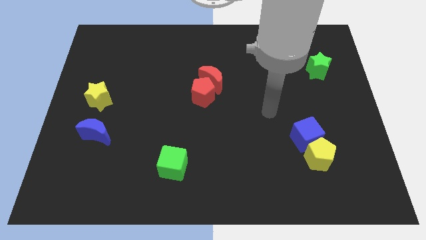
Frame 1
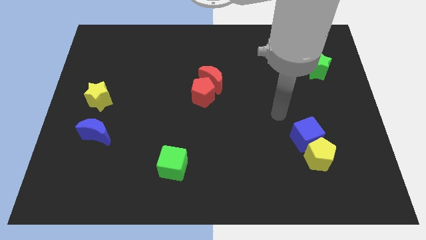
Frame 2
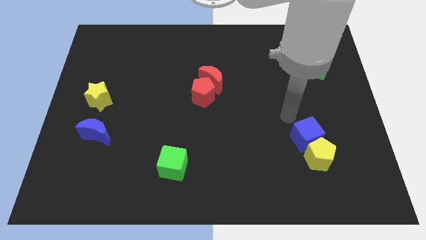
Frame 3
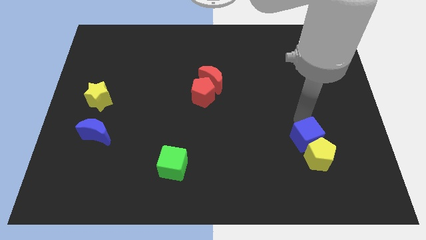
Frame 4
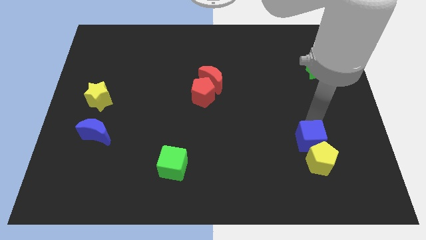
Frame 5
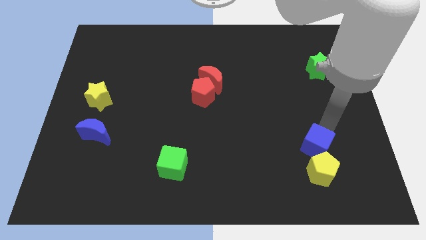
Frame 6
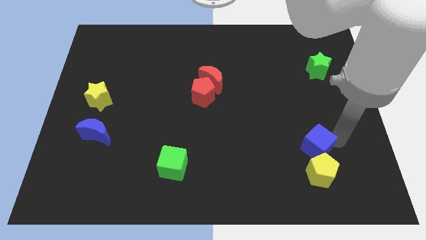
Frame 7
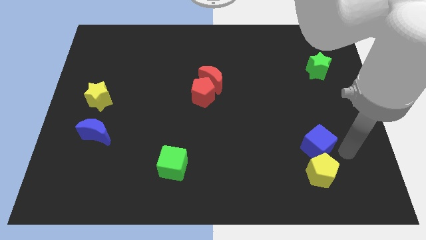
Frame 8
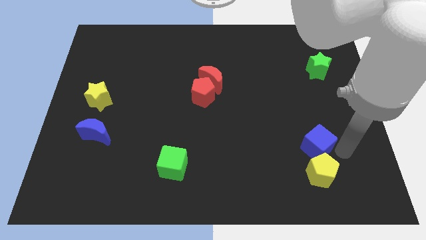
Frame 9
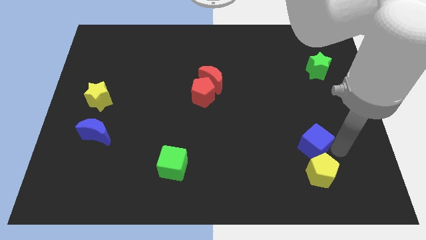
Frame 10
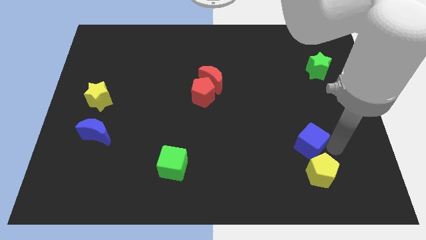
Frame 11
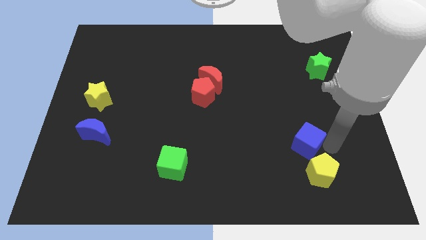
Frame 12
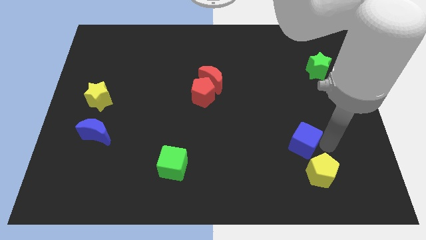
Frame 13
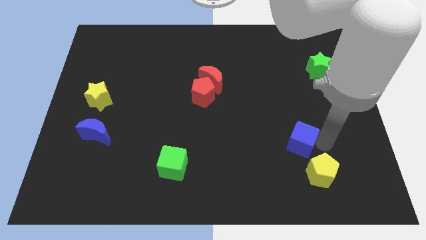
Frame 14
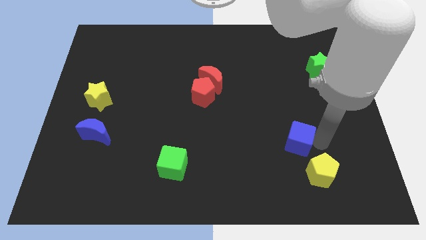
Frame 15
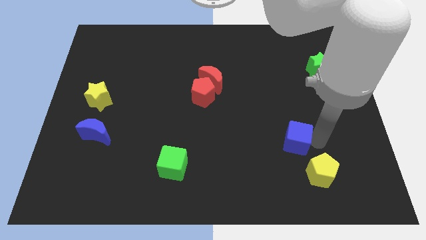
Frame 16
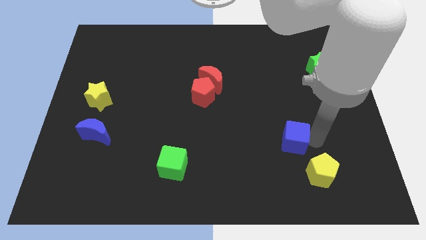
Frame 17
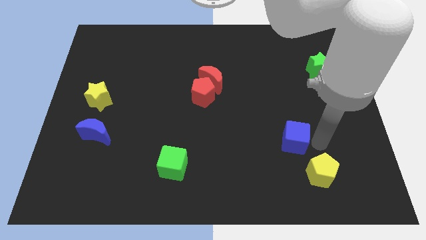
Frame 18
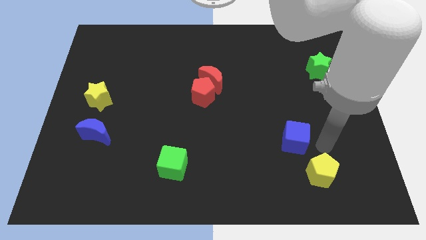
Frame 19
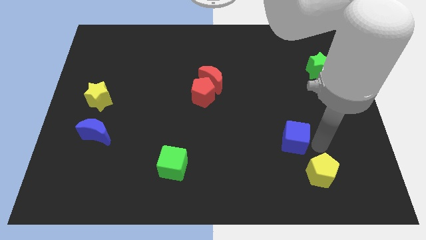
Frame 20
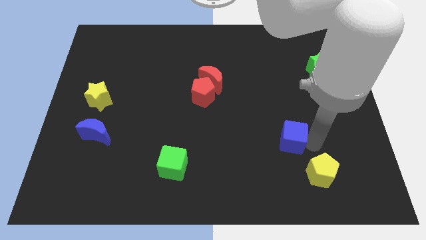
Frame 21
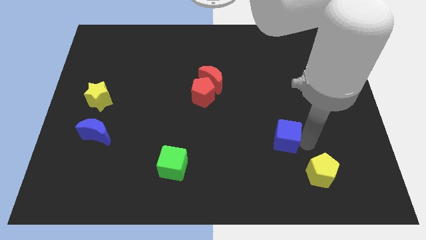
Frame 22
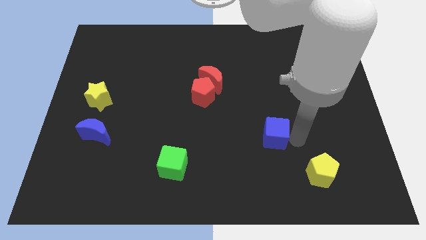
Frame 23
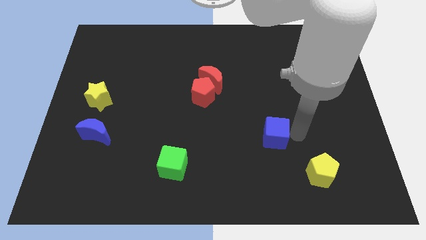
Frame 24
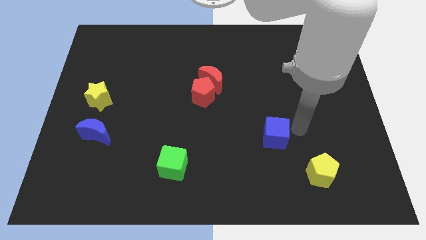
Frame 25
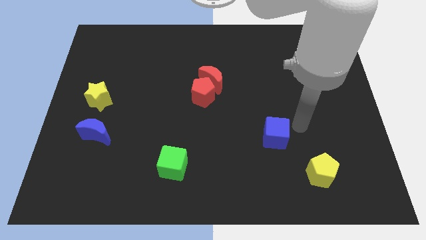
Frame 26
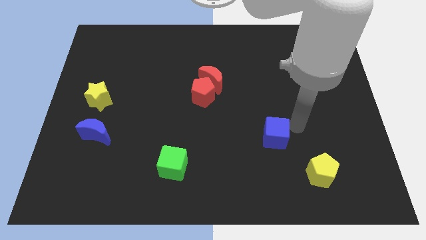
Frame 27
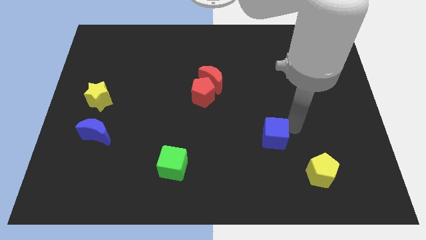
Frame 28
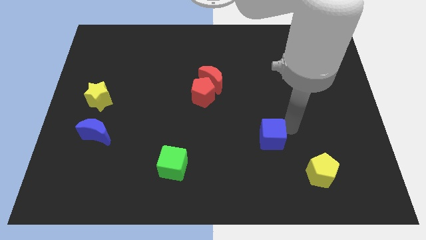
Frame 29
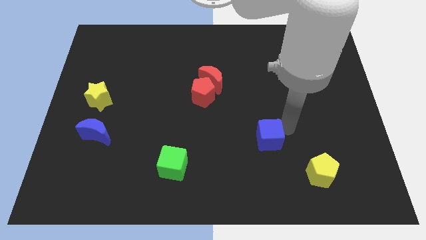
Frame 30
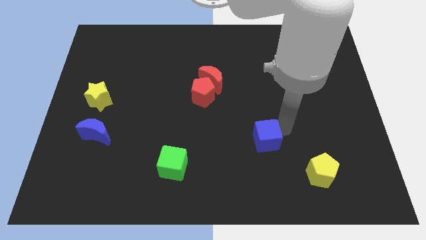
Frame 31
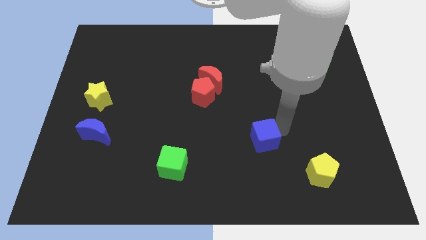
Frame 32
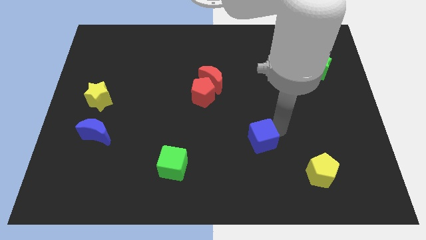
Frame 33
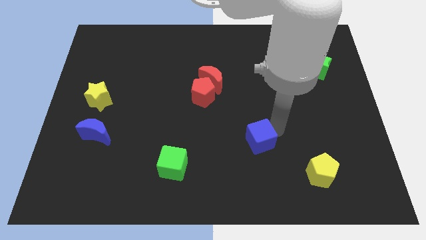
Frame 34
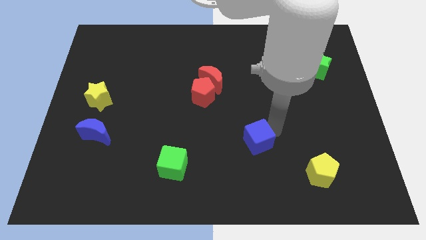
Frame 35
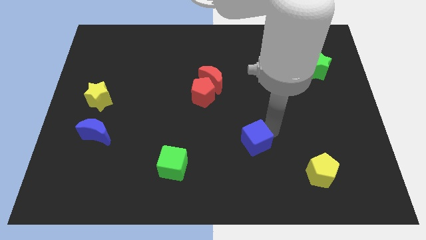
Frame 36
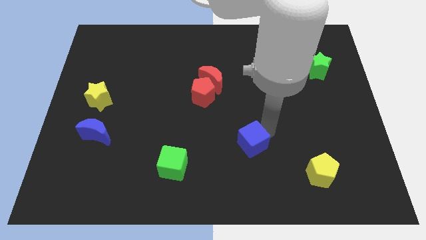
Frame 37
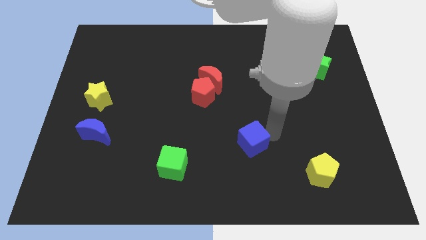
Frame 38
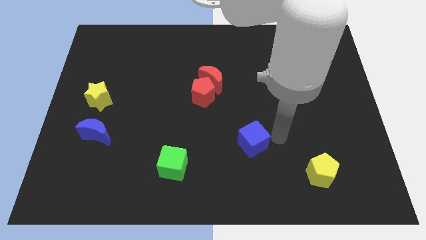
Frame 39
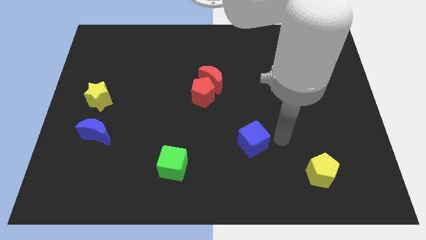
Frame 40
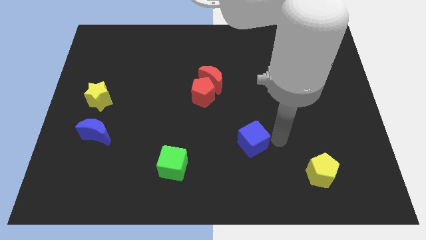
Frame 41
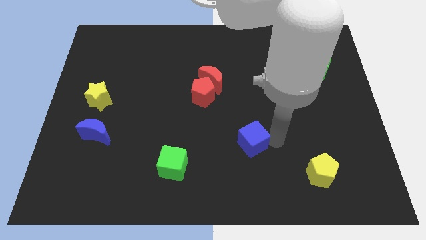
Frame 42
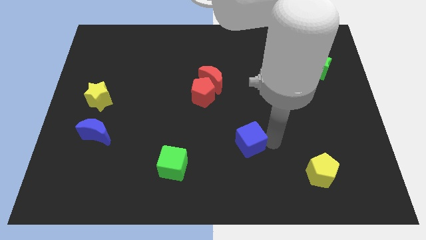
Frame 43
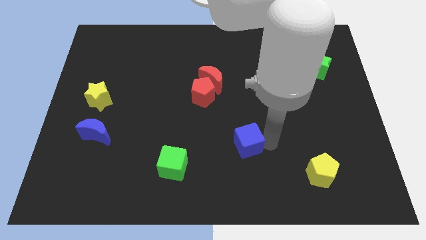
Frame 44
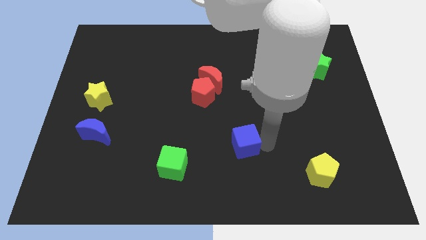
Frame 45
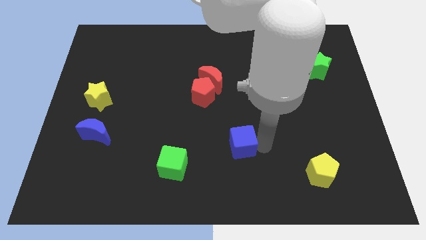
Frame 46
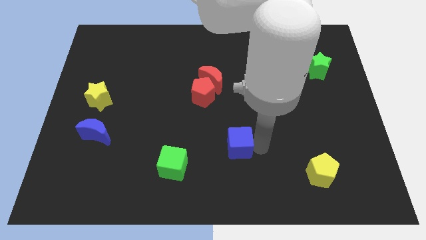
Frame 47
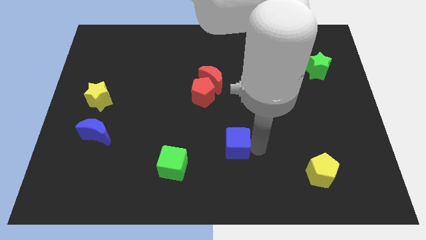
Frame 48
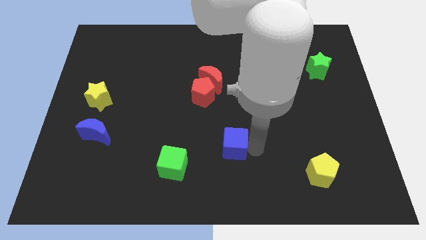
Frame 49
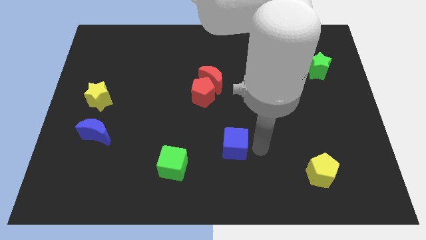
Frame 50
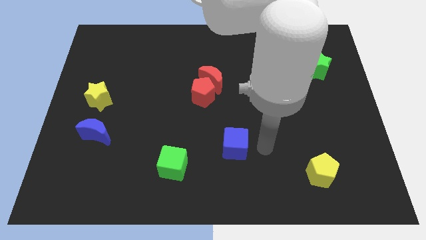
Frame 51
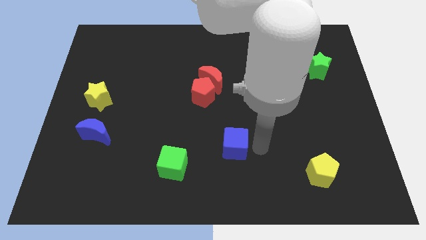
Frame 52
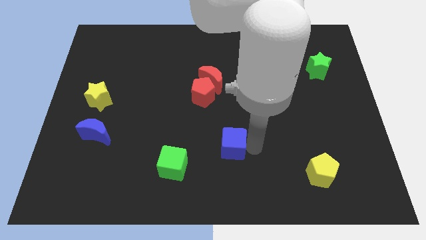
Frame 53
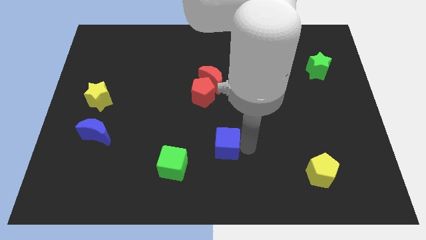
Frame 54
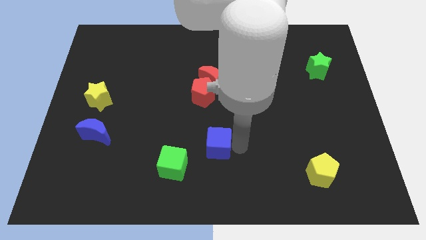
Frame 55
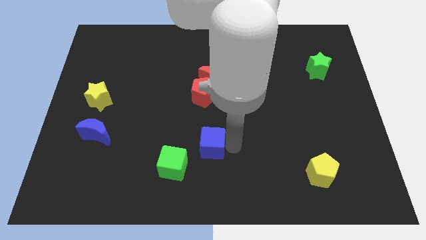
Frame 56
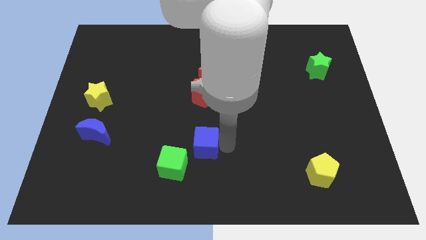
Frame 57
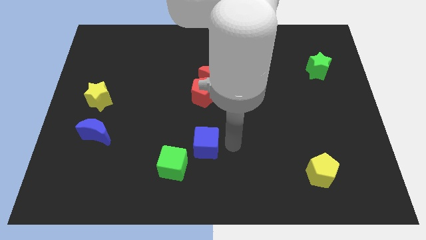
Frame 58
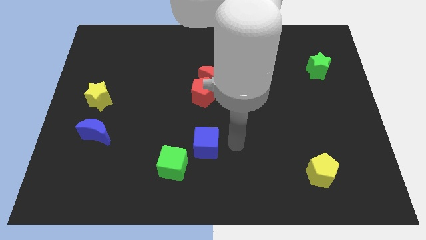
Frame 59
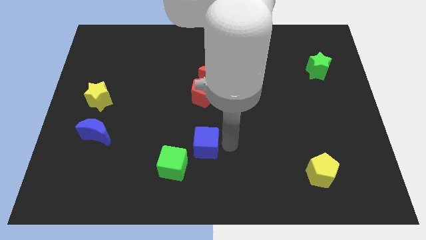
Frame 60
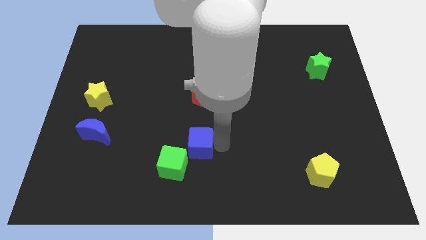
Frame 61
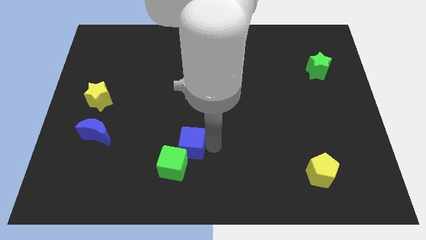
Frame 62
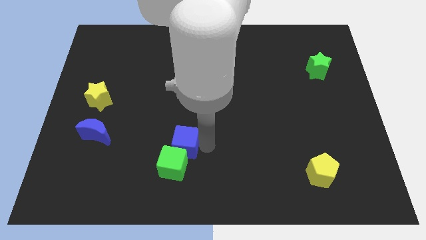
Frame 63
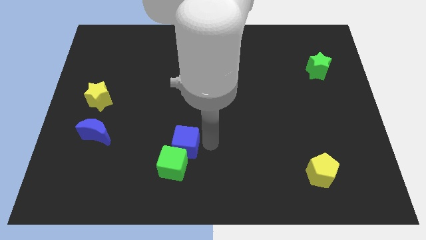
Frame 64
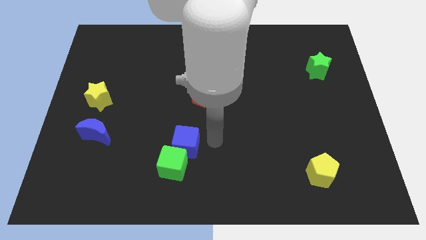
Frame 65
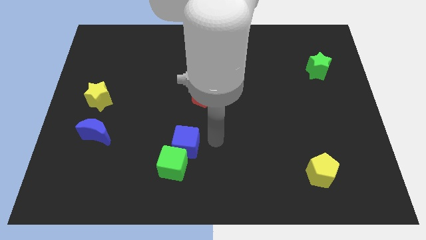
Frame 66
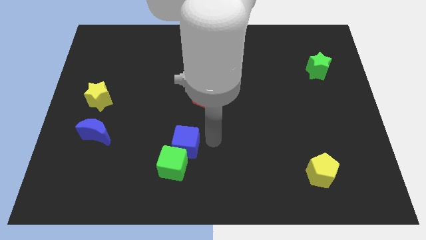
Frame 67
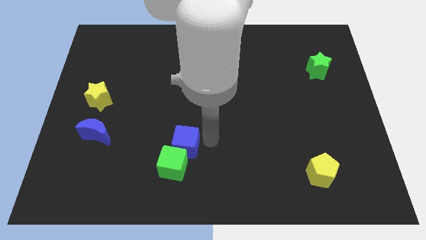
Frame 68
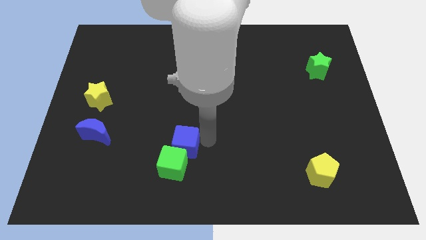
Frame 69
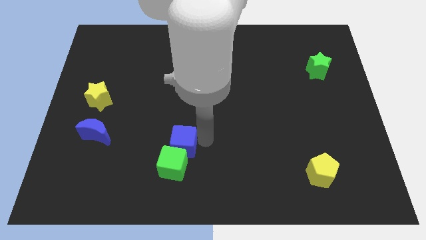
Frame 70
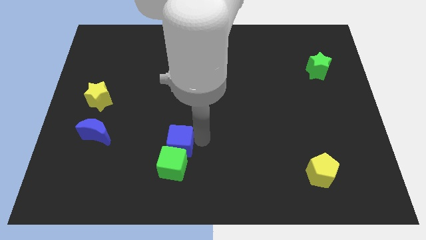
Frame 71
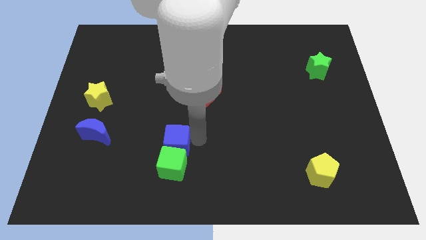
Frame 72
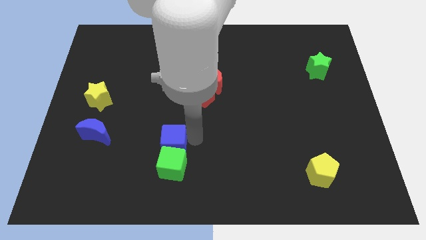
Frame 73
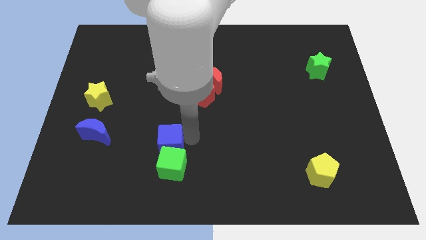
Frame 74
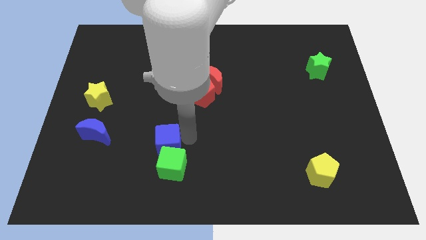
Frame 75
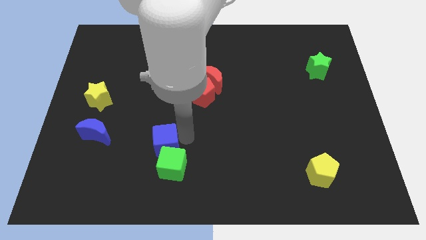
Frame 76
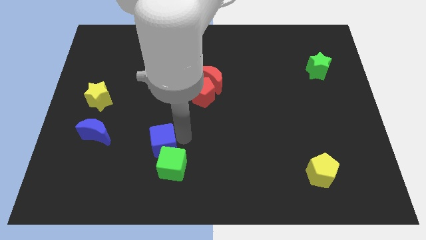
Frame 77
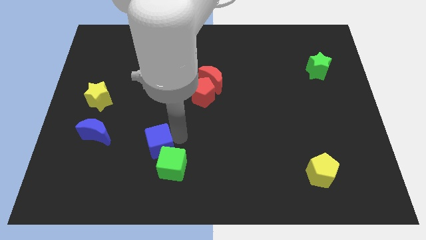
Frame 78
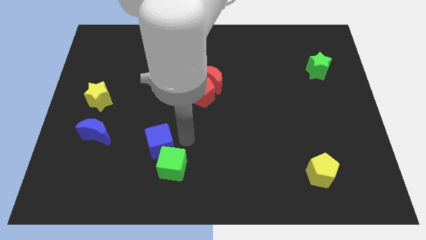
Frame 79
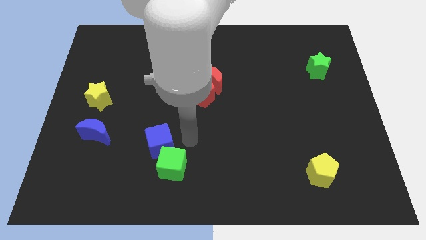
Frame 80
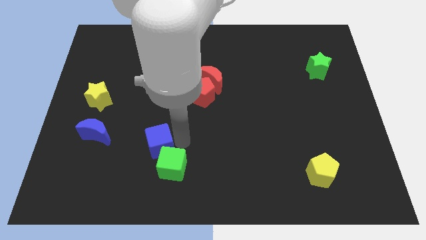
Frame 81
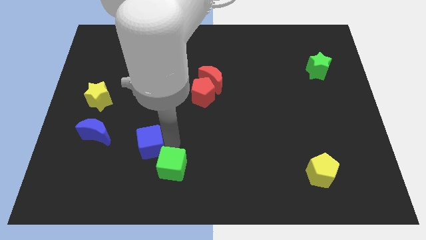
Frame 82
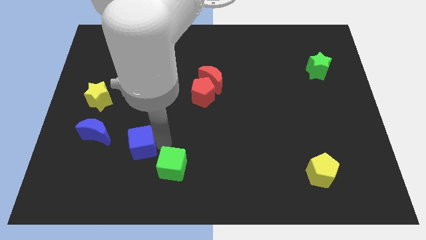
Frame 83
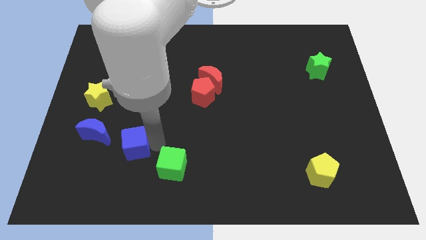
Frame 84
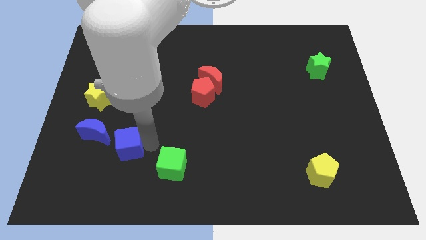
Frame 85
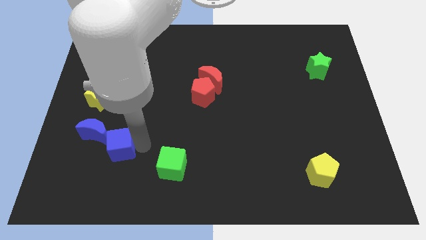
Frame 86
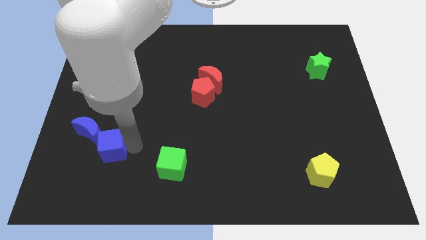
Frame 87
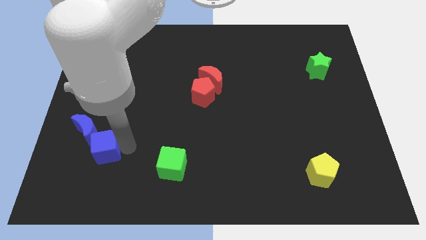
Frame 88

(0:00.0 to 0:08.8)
push the blue cube below the yellow star

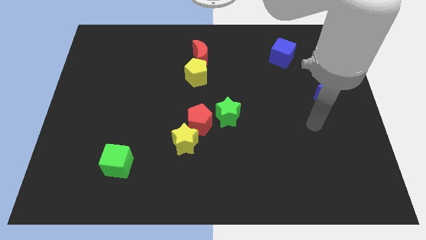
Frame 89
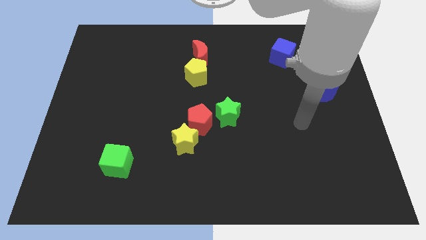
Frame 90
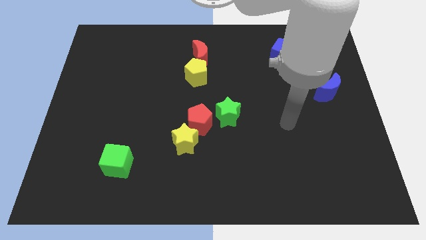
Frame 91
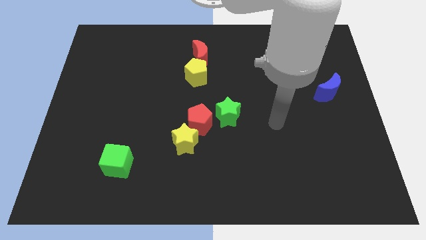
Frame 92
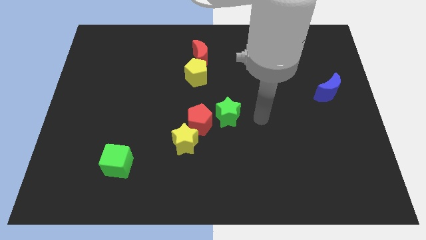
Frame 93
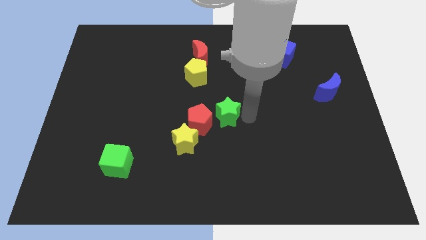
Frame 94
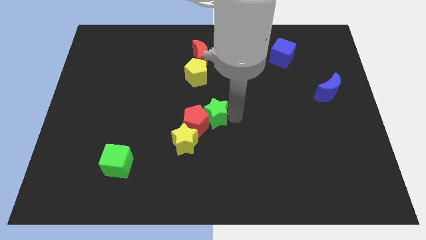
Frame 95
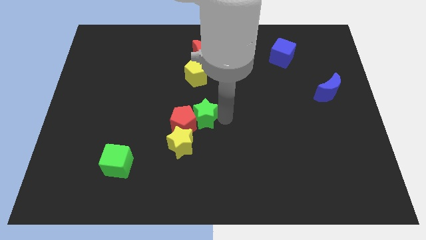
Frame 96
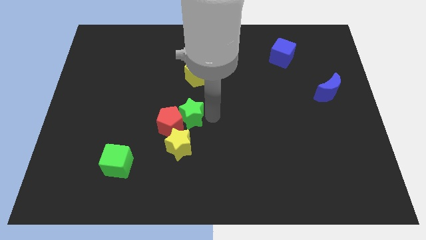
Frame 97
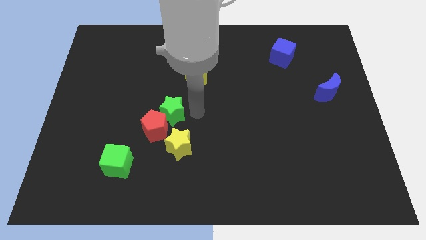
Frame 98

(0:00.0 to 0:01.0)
slide the red pentagon to the top right side of the green cube
